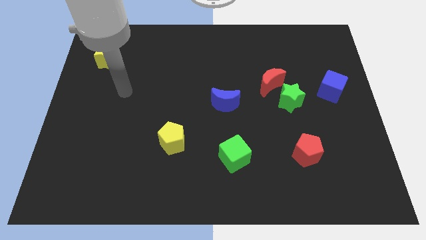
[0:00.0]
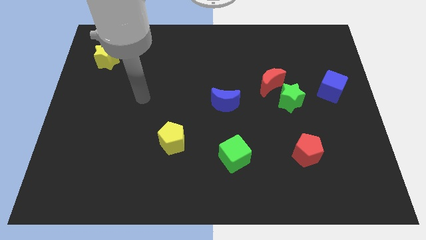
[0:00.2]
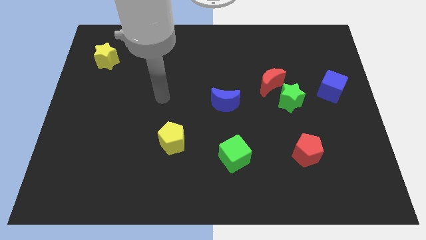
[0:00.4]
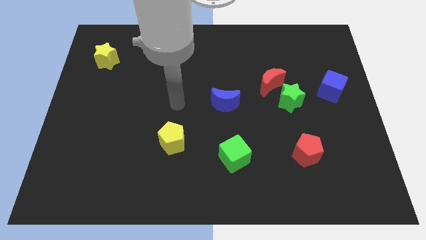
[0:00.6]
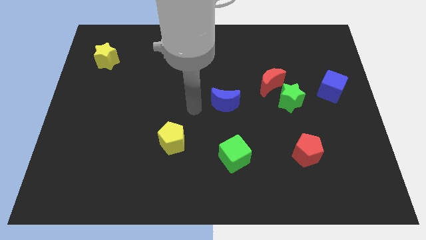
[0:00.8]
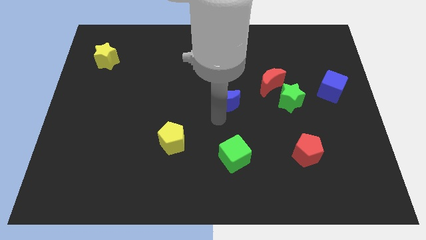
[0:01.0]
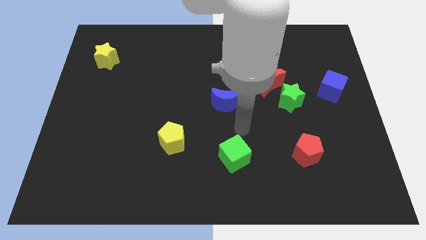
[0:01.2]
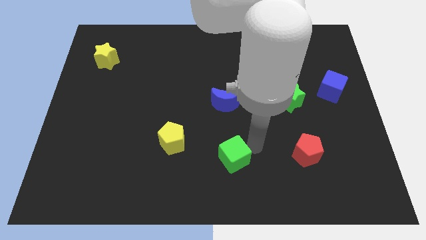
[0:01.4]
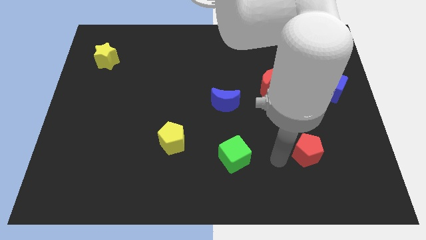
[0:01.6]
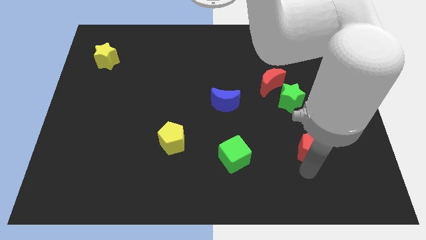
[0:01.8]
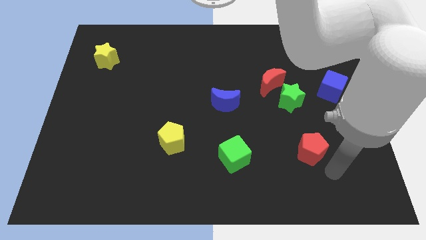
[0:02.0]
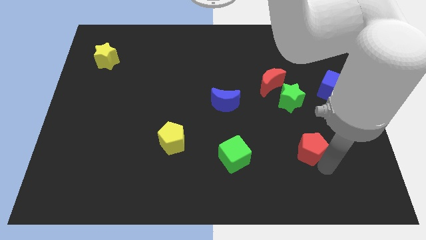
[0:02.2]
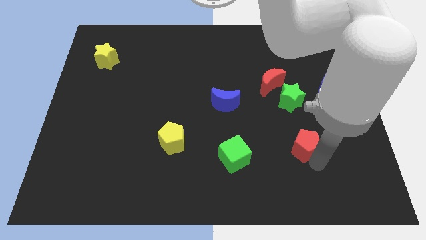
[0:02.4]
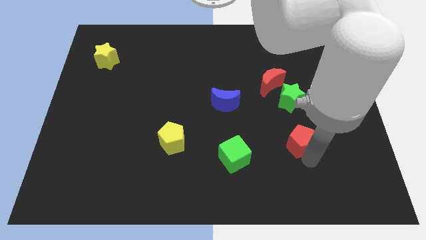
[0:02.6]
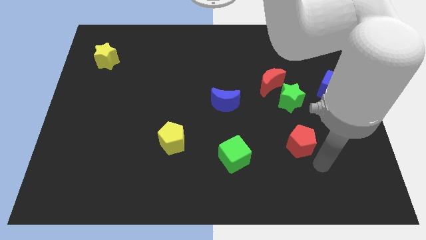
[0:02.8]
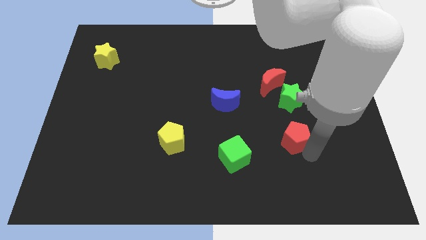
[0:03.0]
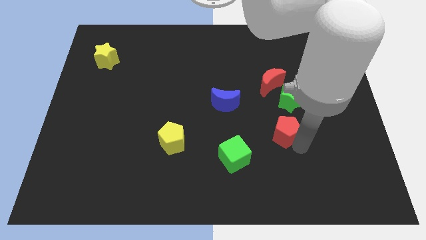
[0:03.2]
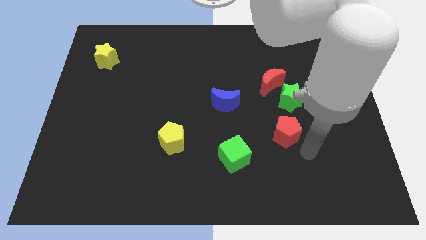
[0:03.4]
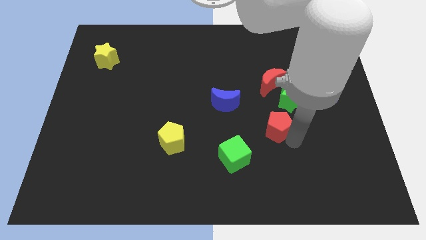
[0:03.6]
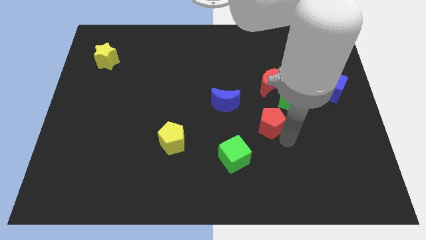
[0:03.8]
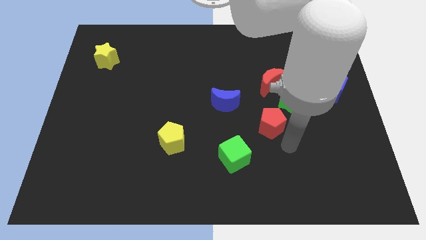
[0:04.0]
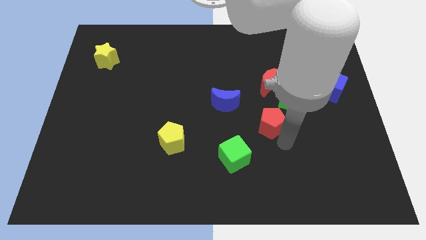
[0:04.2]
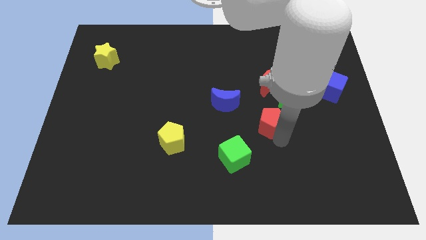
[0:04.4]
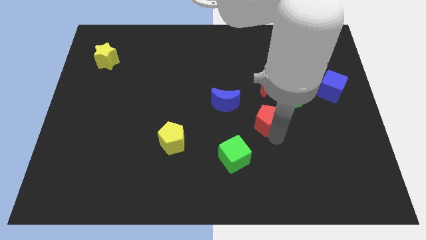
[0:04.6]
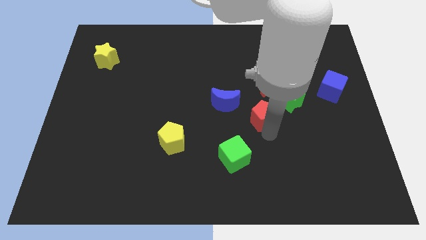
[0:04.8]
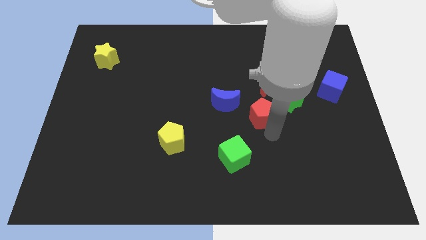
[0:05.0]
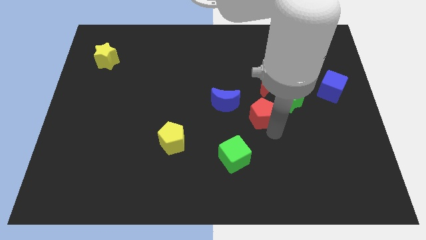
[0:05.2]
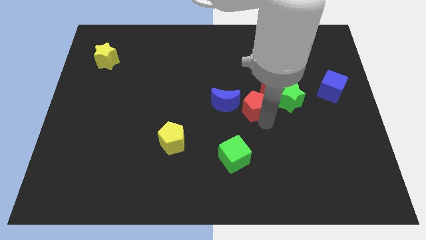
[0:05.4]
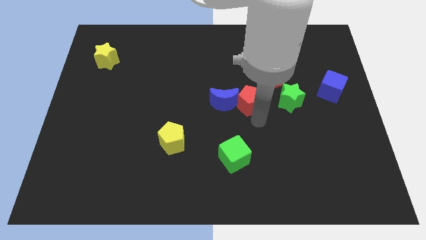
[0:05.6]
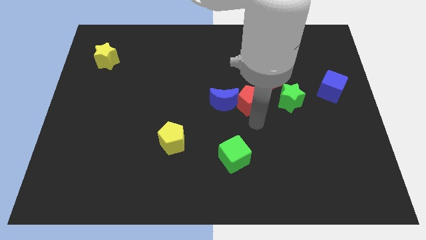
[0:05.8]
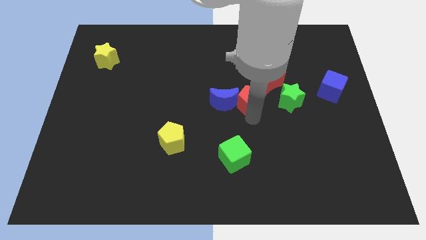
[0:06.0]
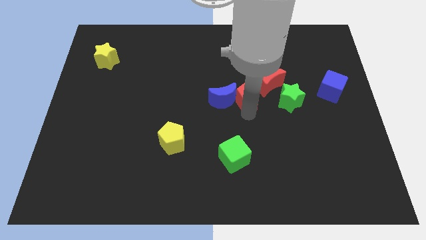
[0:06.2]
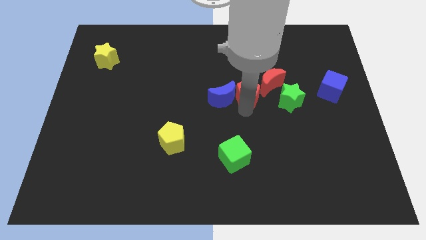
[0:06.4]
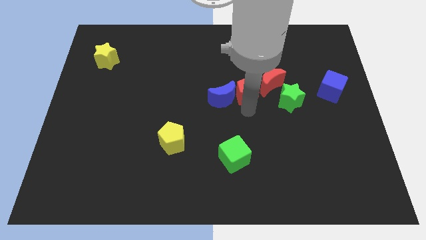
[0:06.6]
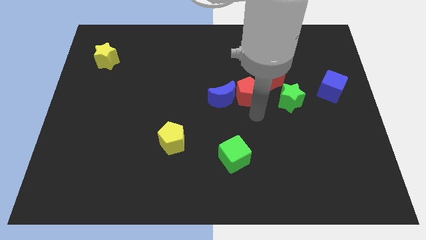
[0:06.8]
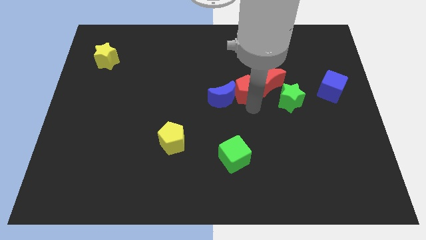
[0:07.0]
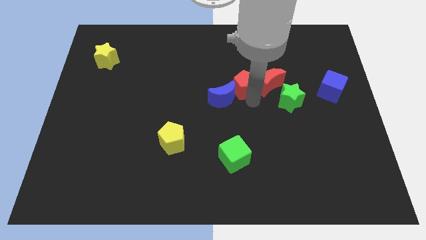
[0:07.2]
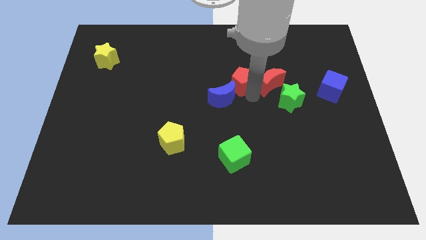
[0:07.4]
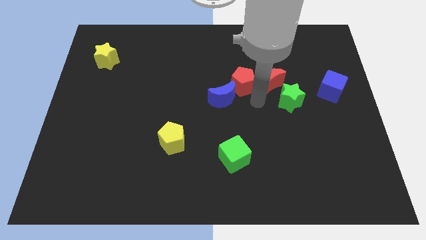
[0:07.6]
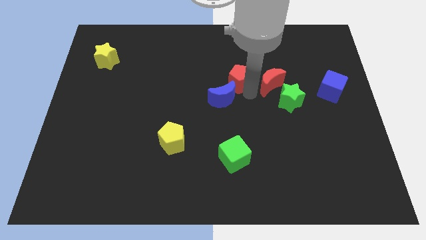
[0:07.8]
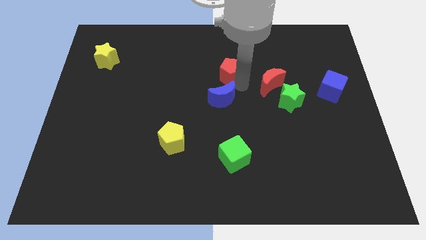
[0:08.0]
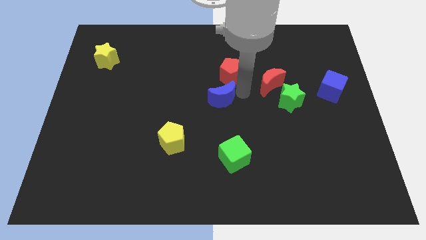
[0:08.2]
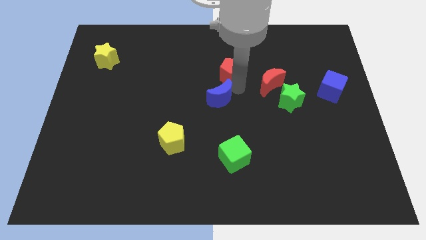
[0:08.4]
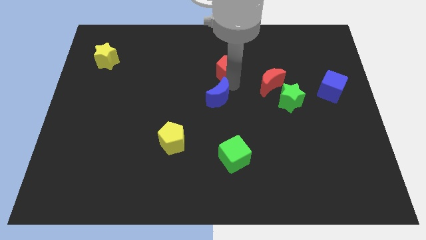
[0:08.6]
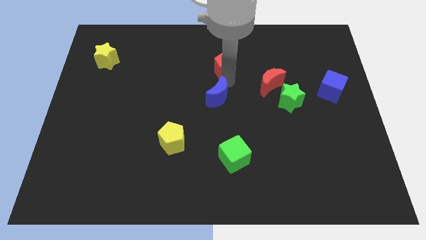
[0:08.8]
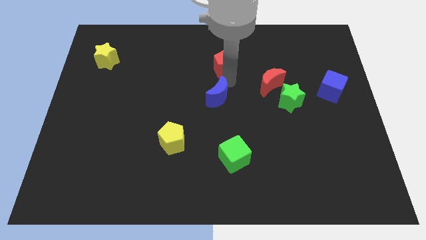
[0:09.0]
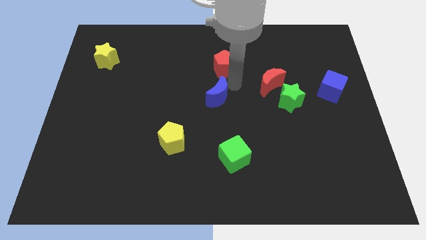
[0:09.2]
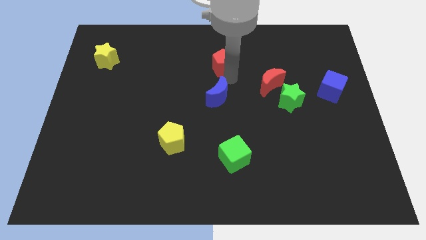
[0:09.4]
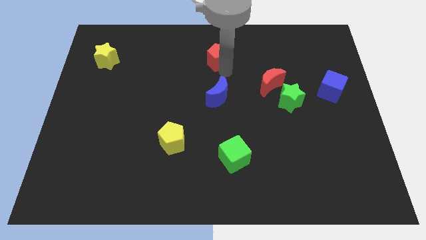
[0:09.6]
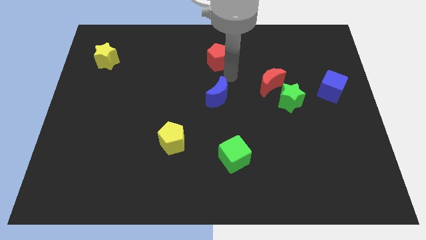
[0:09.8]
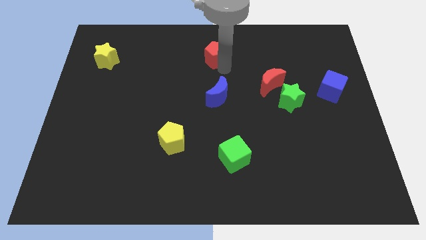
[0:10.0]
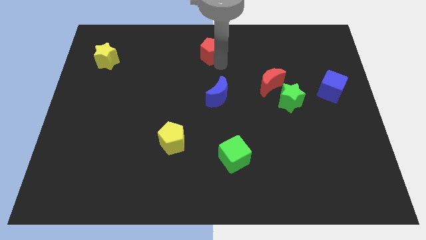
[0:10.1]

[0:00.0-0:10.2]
move the red pentagon to the top

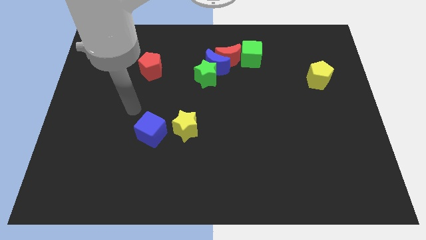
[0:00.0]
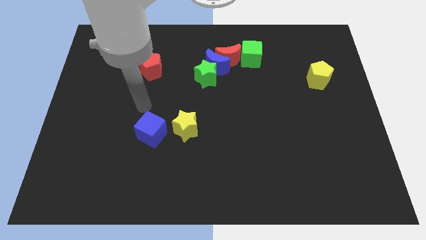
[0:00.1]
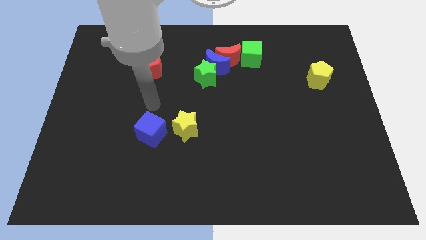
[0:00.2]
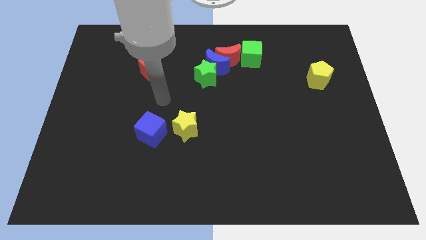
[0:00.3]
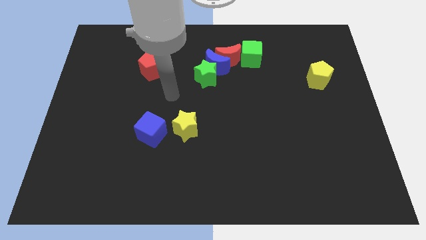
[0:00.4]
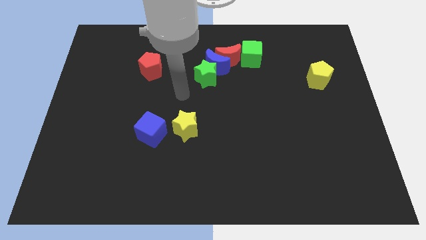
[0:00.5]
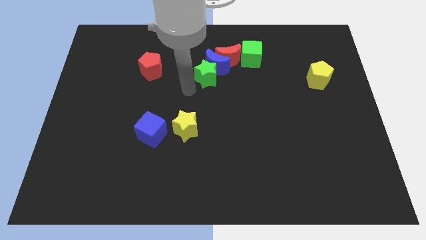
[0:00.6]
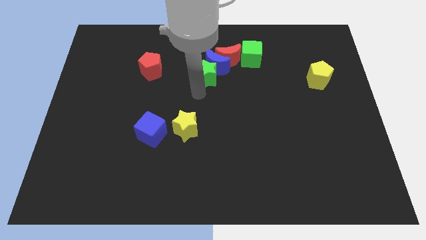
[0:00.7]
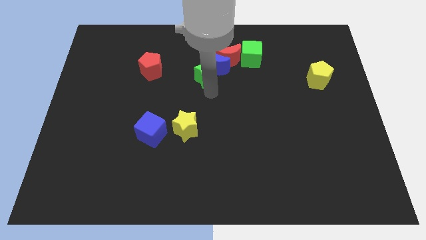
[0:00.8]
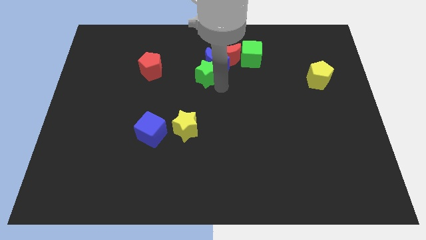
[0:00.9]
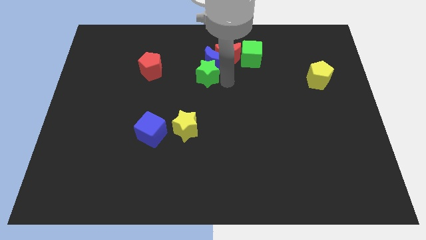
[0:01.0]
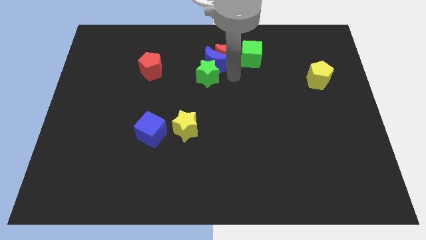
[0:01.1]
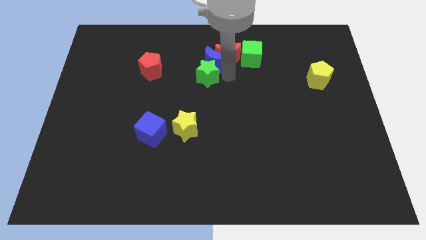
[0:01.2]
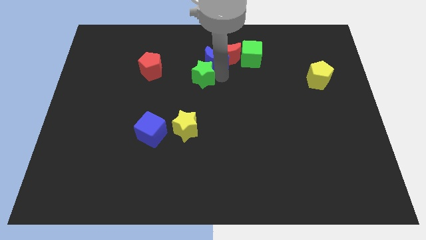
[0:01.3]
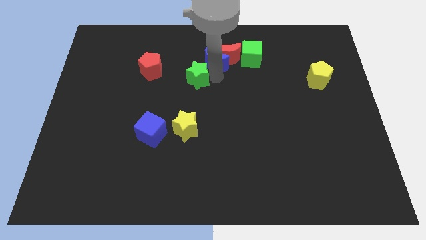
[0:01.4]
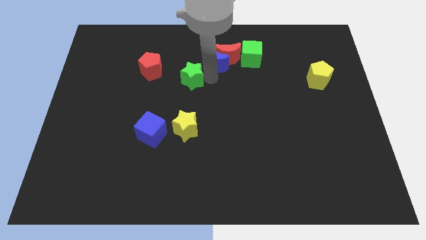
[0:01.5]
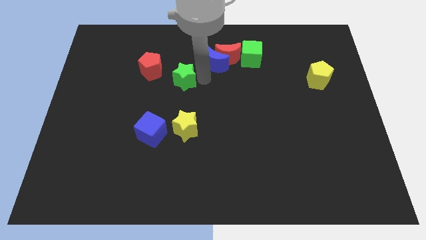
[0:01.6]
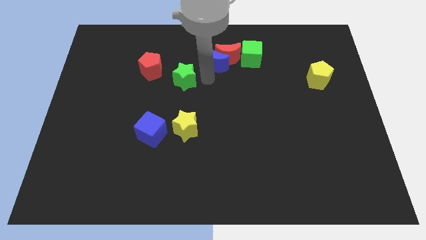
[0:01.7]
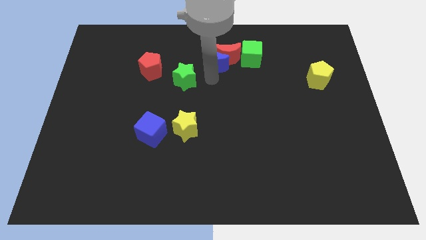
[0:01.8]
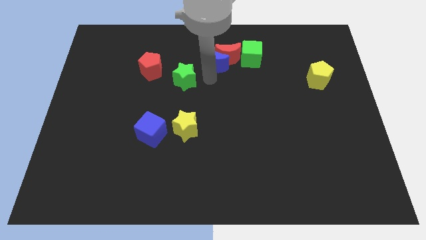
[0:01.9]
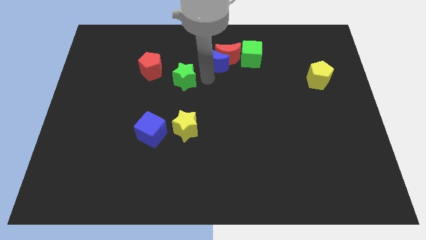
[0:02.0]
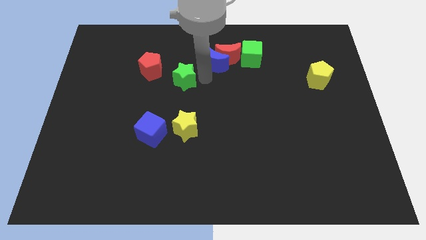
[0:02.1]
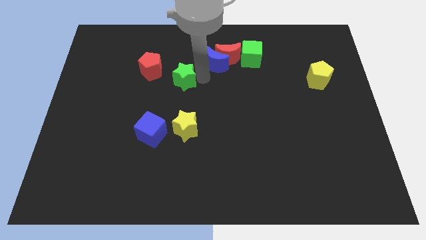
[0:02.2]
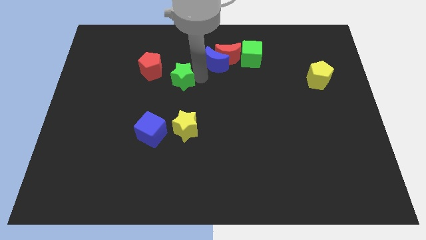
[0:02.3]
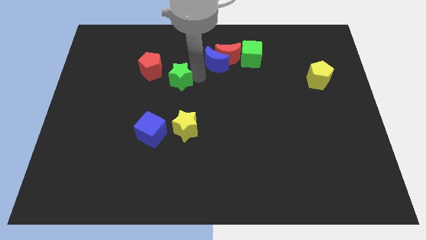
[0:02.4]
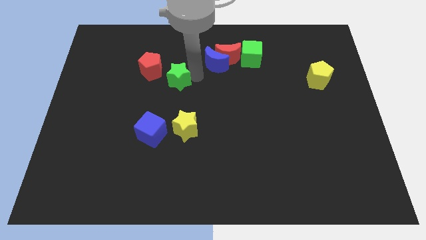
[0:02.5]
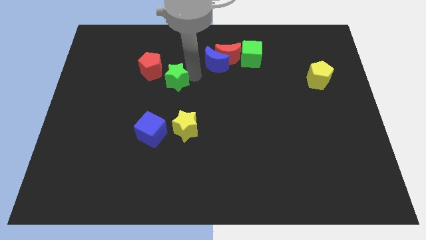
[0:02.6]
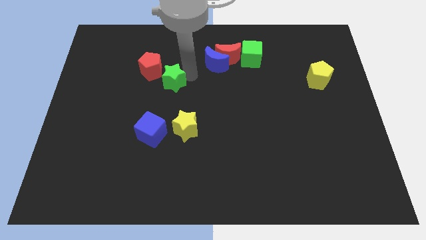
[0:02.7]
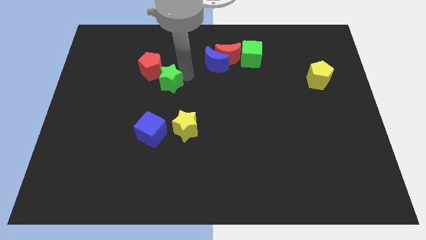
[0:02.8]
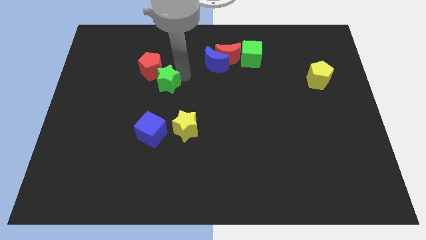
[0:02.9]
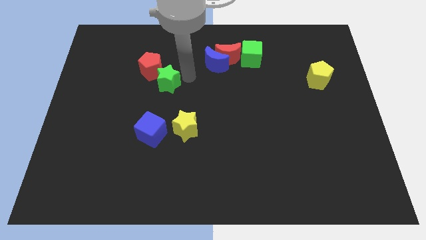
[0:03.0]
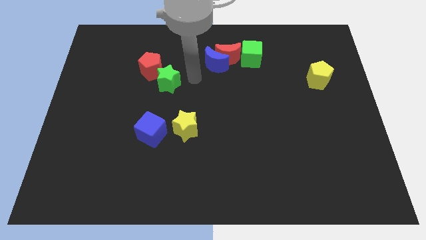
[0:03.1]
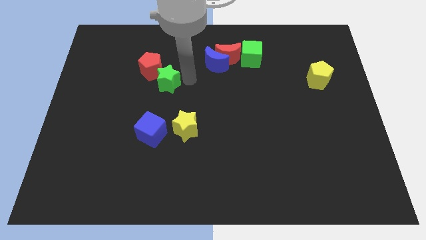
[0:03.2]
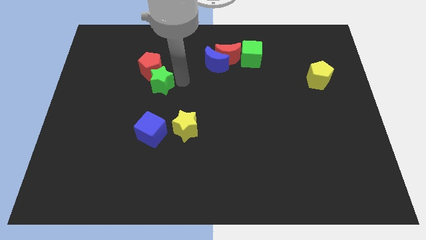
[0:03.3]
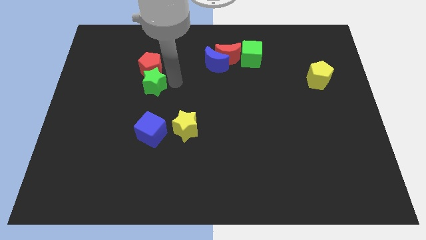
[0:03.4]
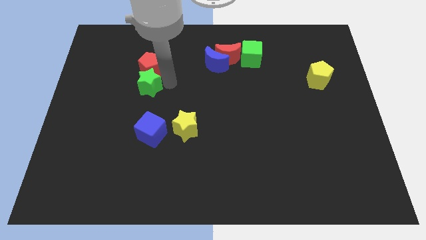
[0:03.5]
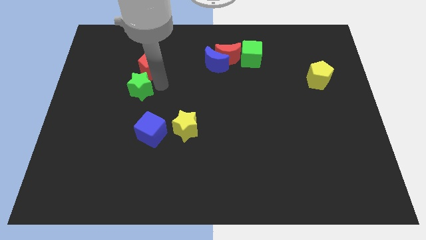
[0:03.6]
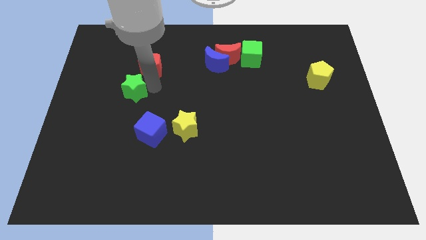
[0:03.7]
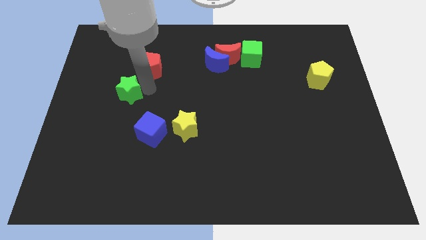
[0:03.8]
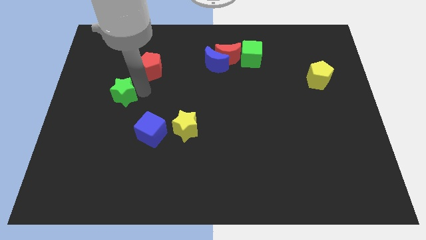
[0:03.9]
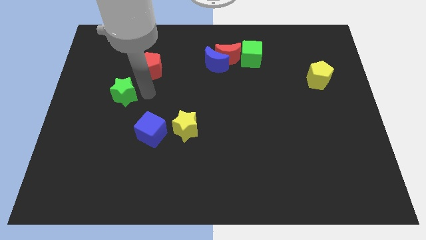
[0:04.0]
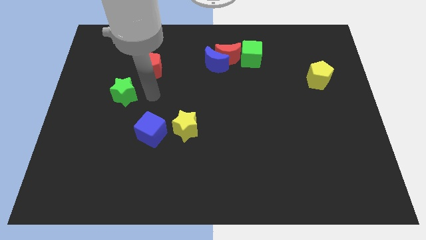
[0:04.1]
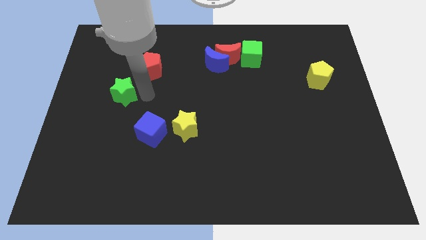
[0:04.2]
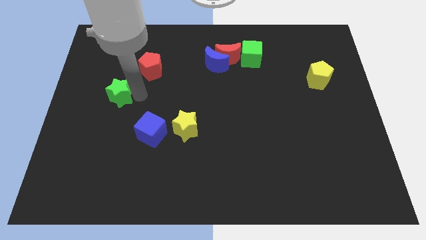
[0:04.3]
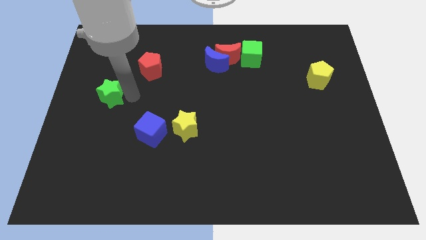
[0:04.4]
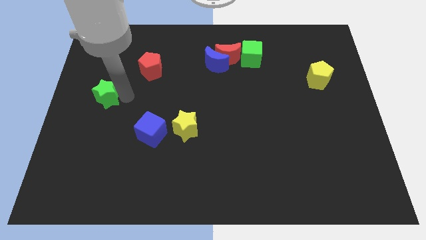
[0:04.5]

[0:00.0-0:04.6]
slide the green star to the center left
